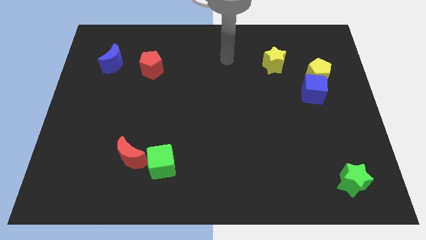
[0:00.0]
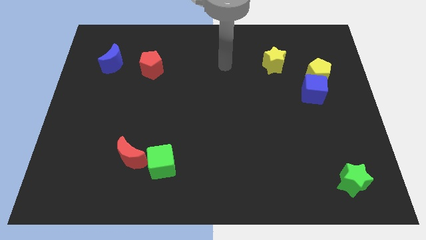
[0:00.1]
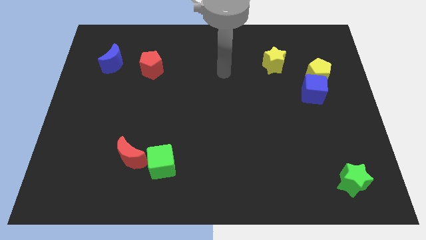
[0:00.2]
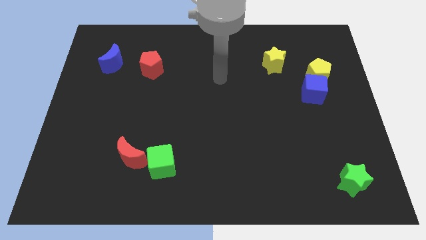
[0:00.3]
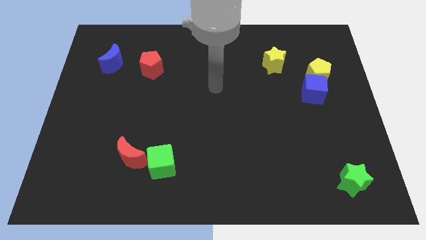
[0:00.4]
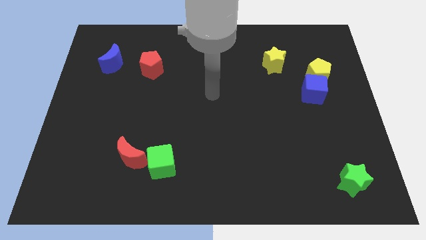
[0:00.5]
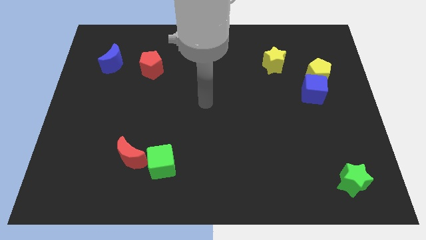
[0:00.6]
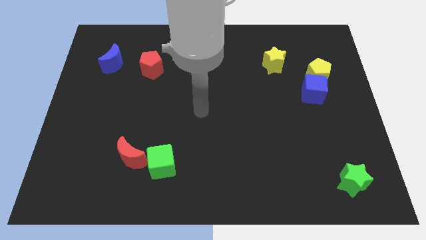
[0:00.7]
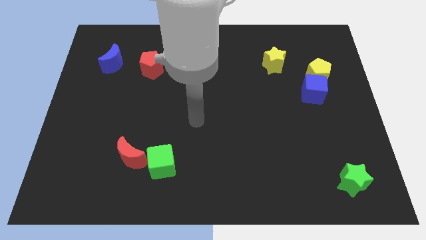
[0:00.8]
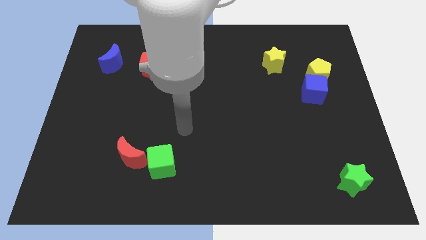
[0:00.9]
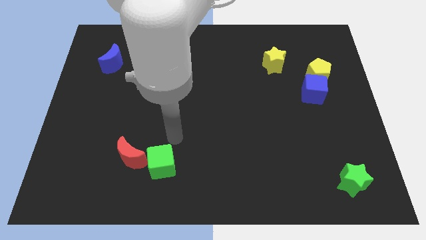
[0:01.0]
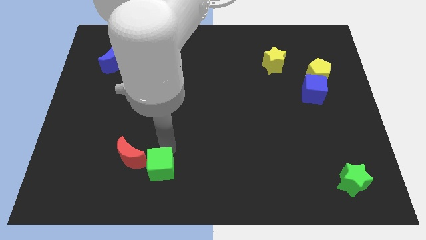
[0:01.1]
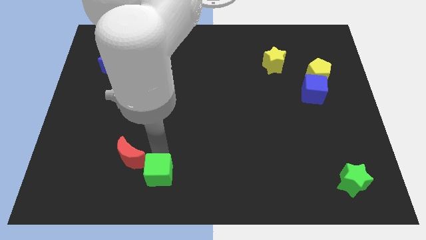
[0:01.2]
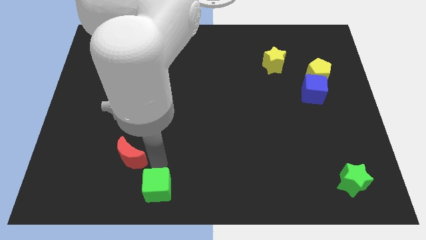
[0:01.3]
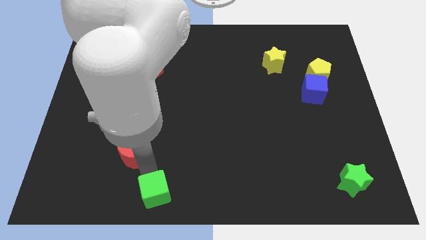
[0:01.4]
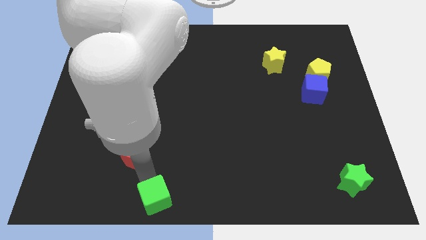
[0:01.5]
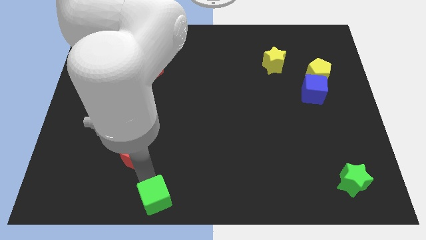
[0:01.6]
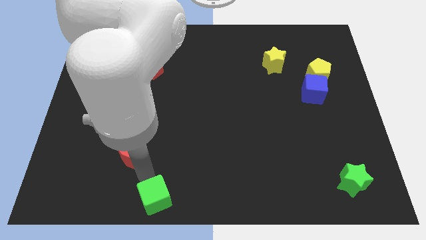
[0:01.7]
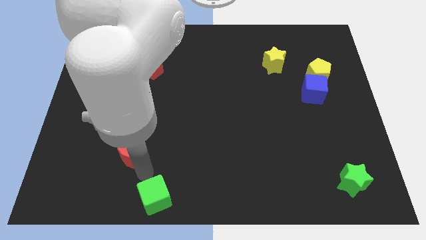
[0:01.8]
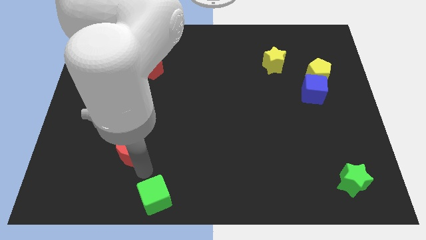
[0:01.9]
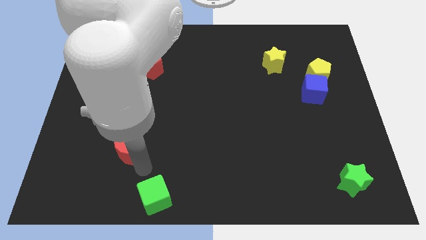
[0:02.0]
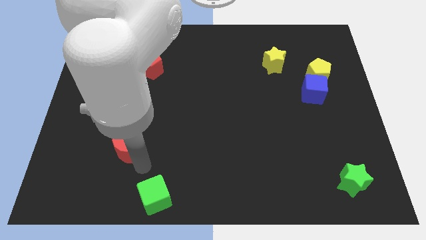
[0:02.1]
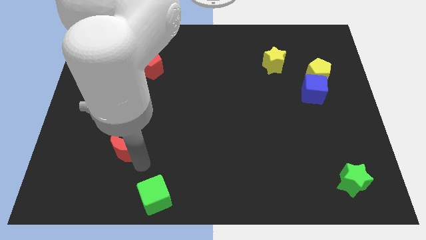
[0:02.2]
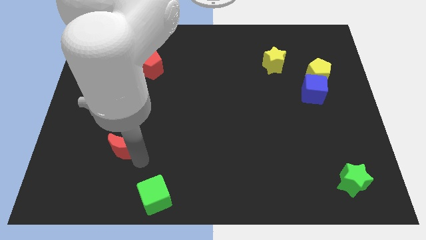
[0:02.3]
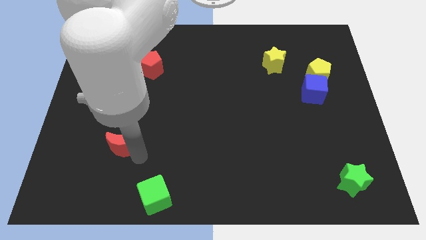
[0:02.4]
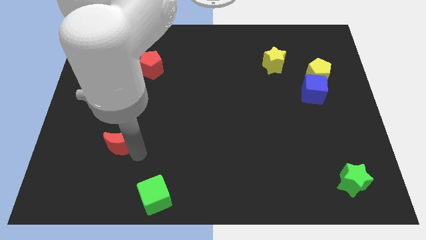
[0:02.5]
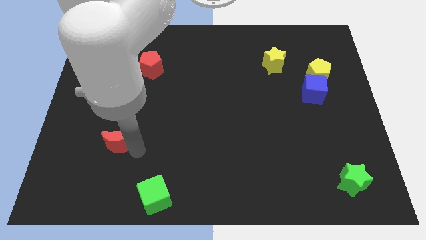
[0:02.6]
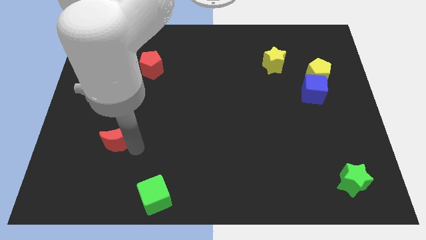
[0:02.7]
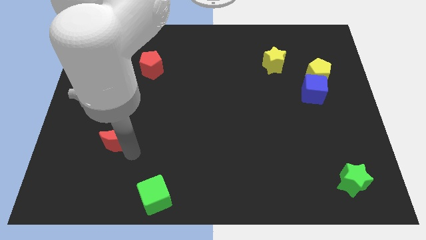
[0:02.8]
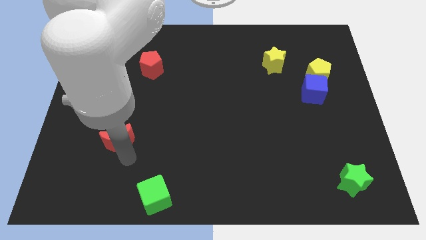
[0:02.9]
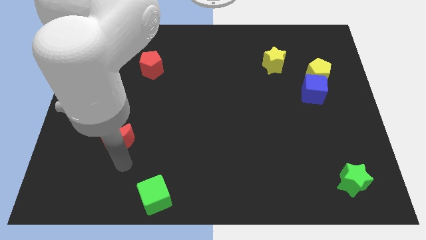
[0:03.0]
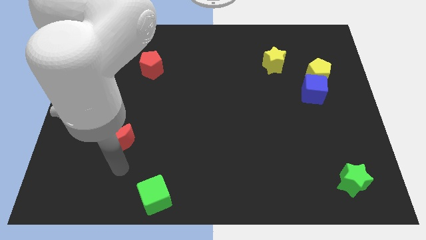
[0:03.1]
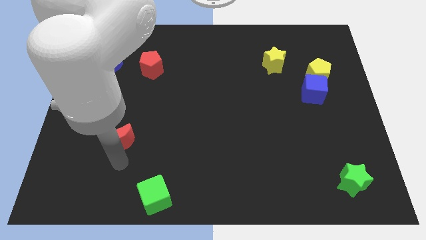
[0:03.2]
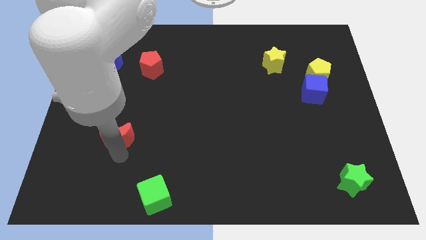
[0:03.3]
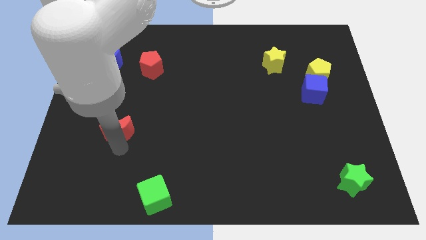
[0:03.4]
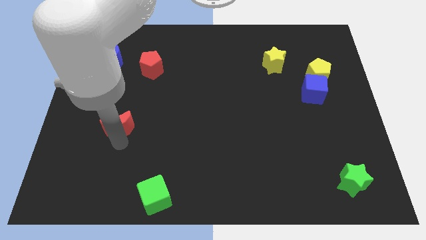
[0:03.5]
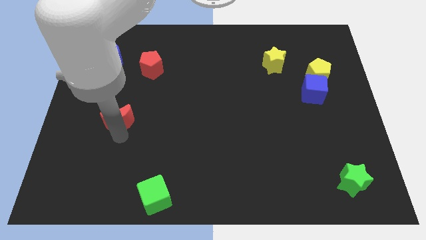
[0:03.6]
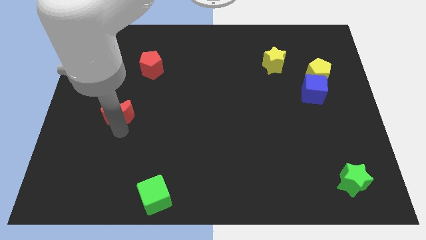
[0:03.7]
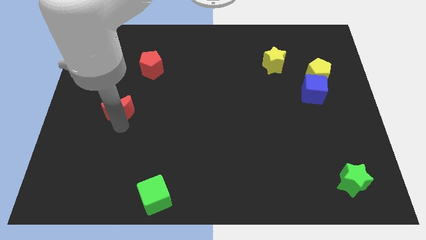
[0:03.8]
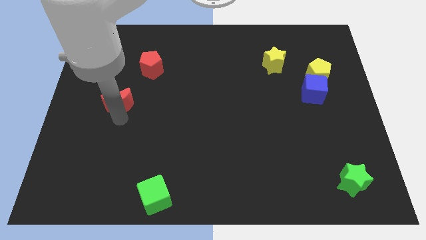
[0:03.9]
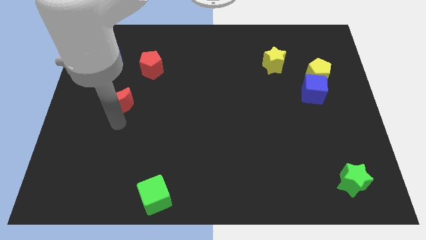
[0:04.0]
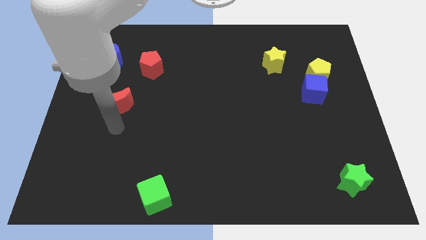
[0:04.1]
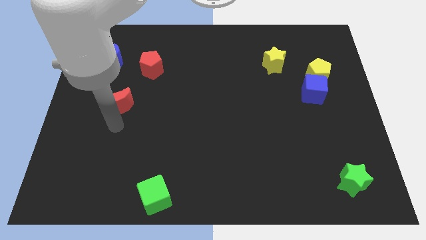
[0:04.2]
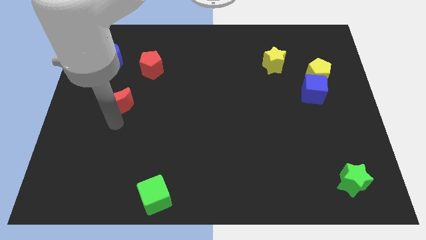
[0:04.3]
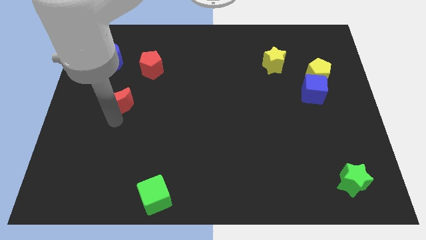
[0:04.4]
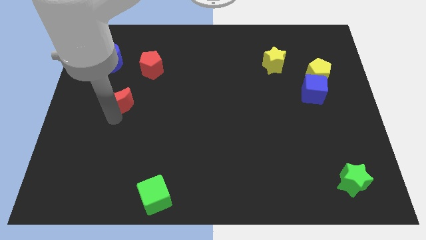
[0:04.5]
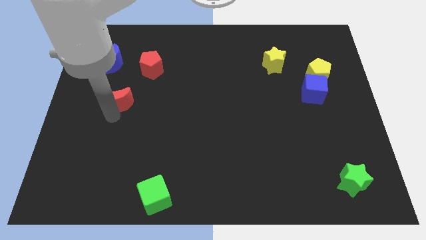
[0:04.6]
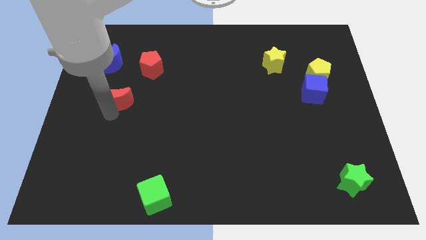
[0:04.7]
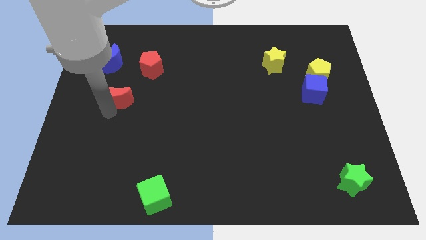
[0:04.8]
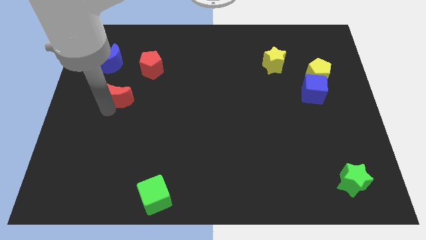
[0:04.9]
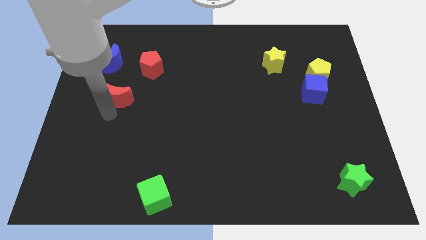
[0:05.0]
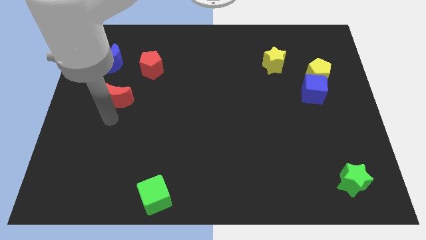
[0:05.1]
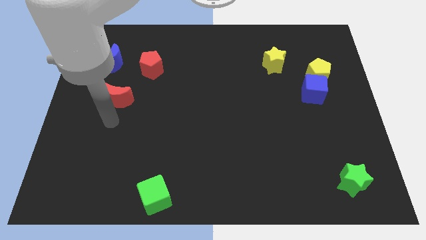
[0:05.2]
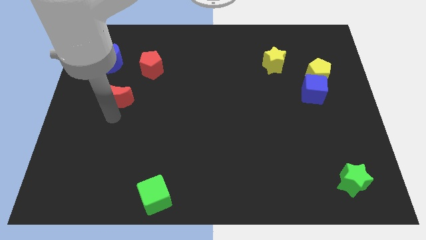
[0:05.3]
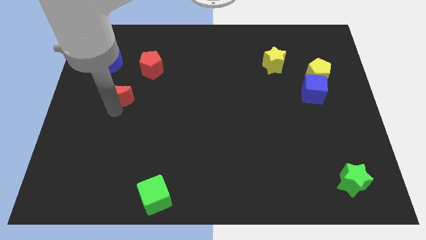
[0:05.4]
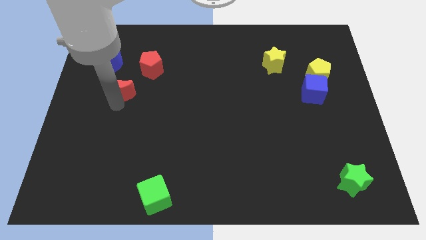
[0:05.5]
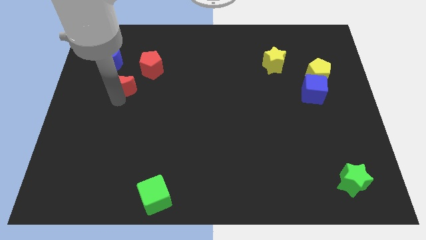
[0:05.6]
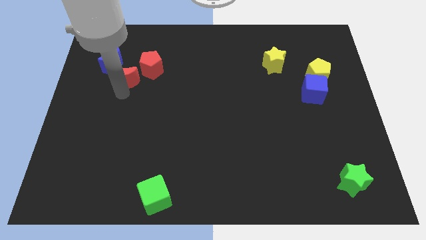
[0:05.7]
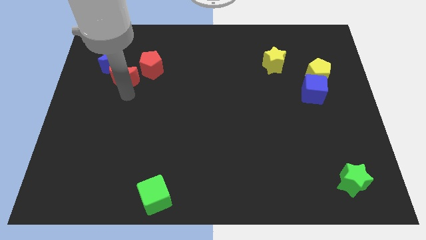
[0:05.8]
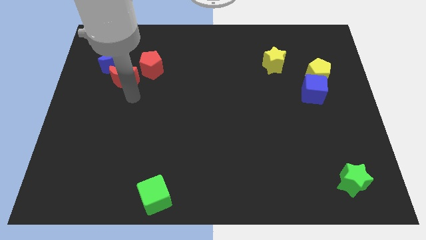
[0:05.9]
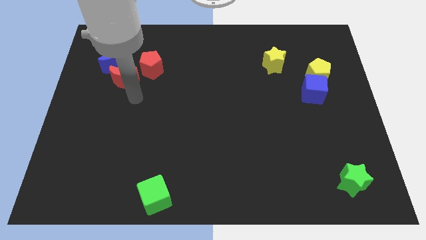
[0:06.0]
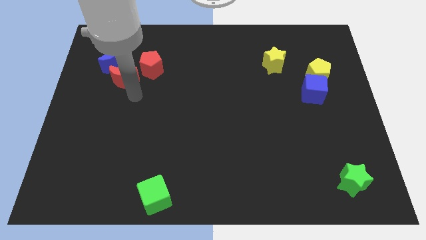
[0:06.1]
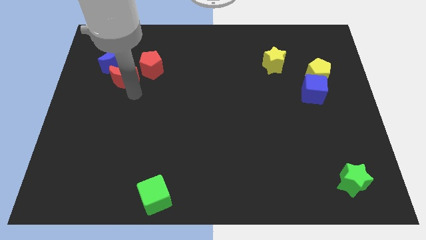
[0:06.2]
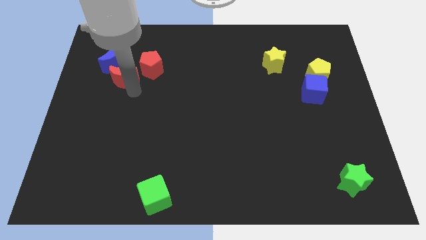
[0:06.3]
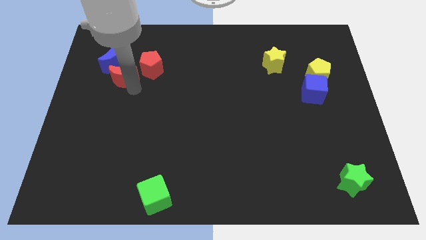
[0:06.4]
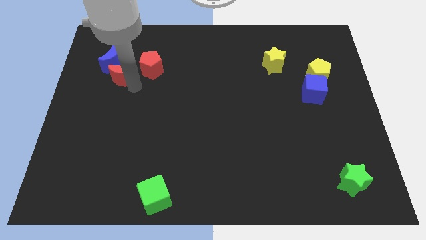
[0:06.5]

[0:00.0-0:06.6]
push the red moon next to the blue moon

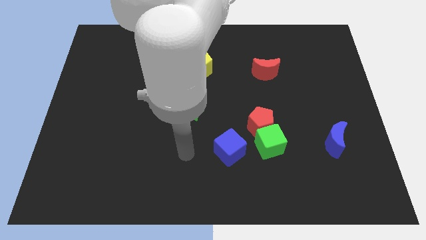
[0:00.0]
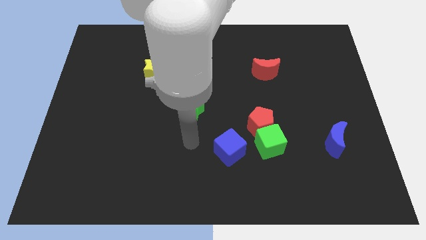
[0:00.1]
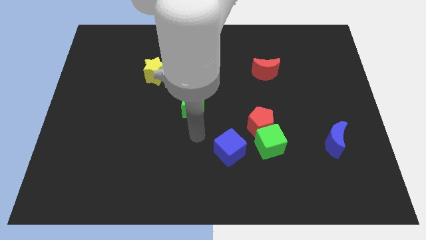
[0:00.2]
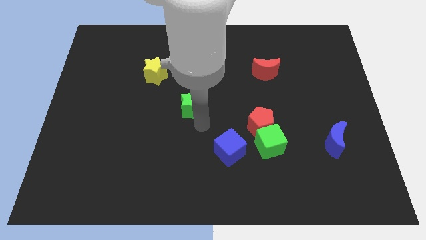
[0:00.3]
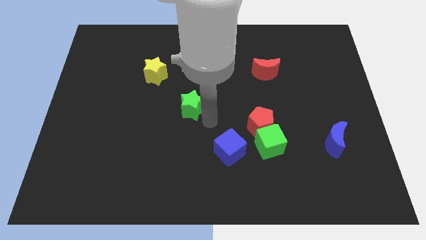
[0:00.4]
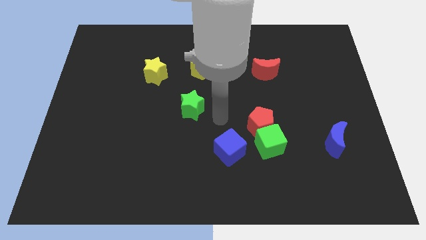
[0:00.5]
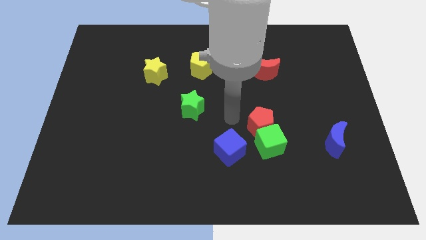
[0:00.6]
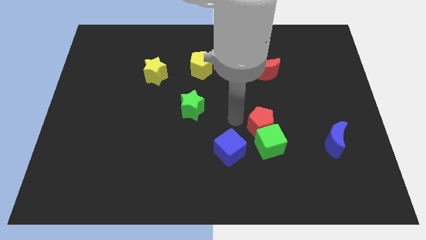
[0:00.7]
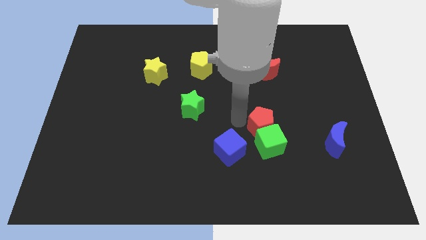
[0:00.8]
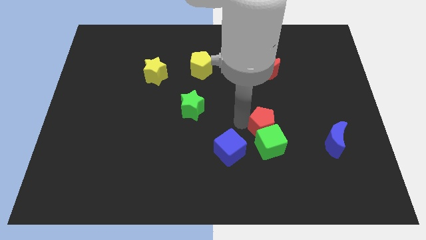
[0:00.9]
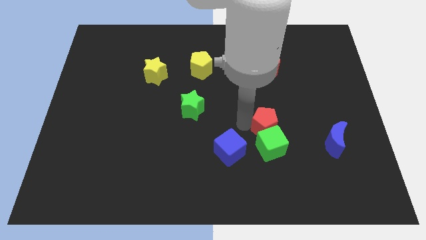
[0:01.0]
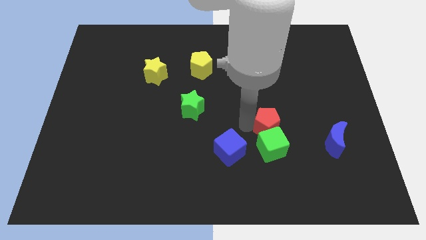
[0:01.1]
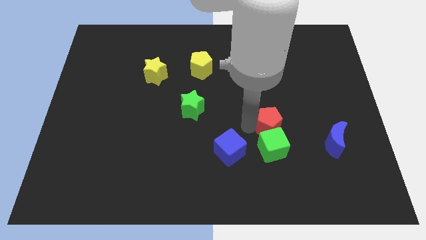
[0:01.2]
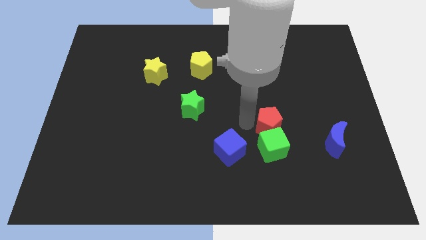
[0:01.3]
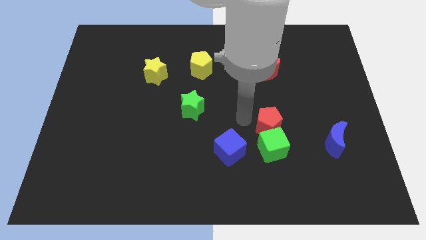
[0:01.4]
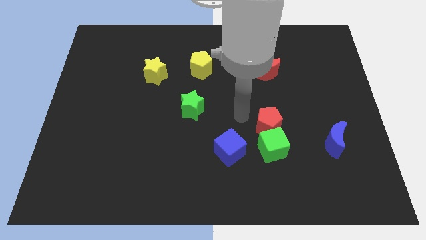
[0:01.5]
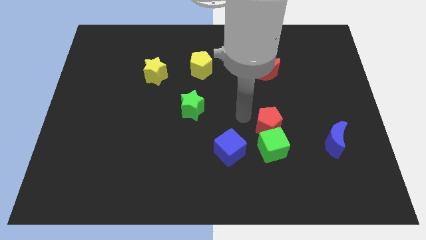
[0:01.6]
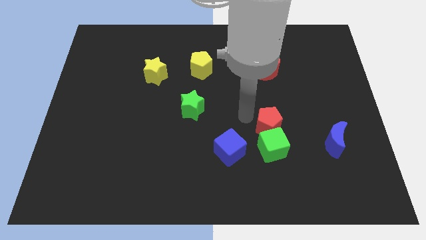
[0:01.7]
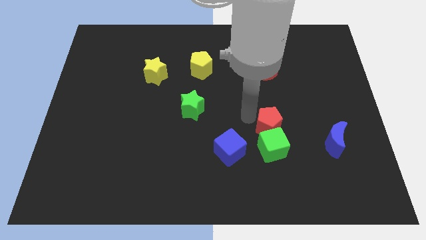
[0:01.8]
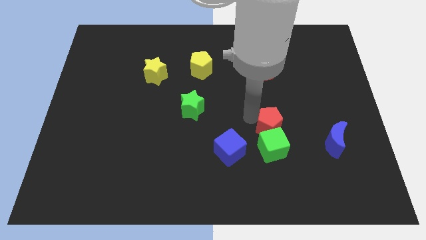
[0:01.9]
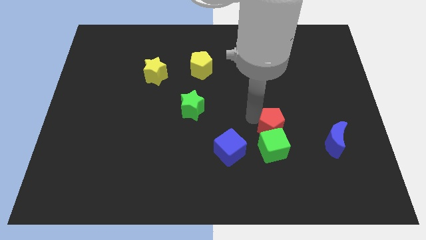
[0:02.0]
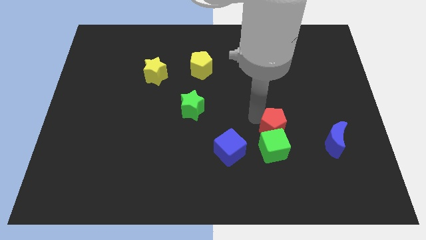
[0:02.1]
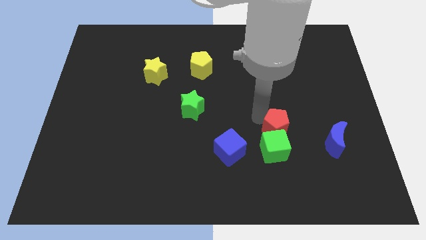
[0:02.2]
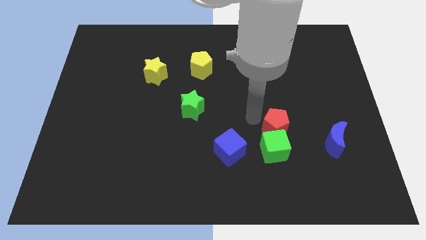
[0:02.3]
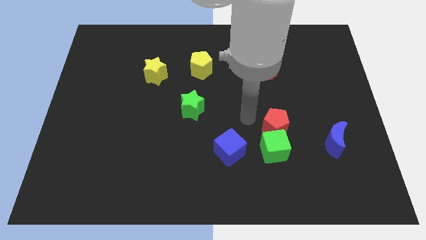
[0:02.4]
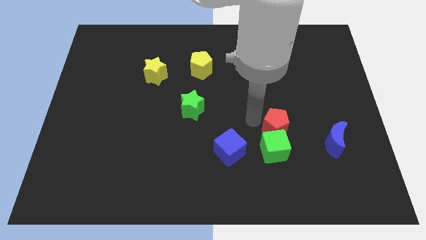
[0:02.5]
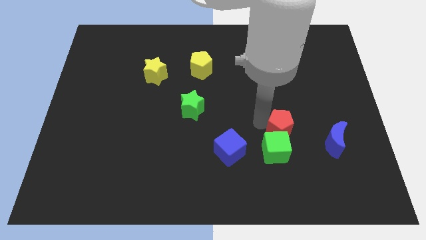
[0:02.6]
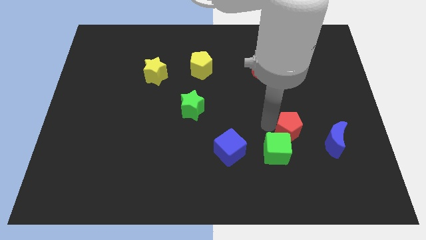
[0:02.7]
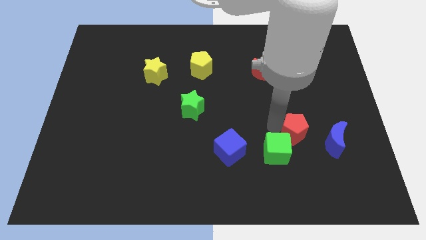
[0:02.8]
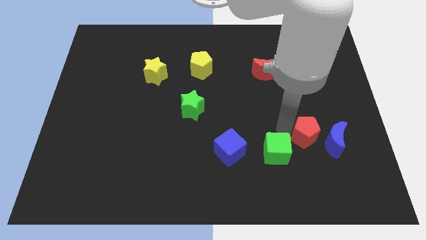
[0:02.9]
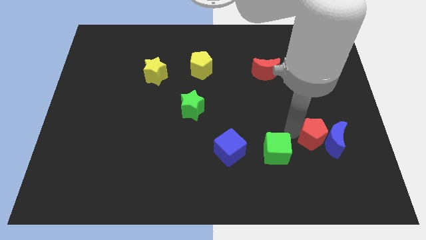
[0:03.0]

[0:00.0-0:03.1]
push the red pentagon towards the blue moon
